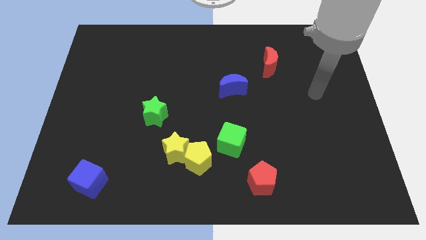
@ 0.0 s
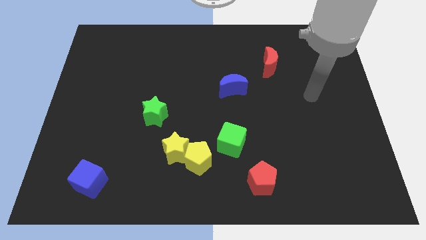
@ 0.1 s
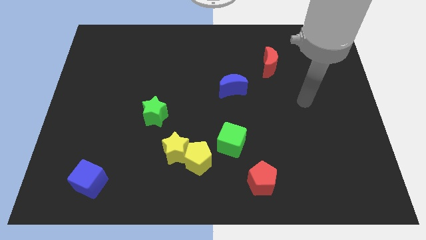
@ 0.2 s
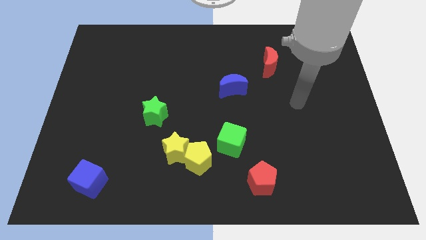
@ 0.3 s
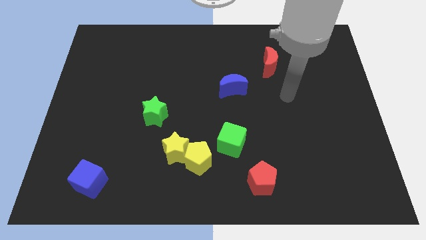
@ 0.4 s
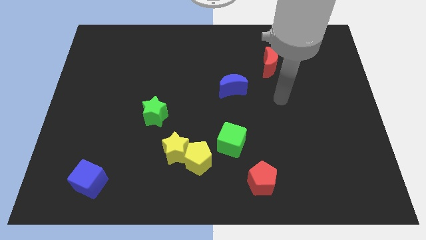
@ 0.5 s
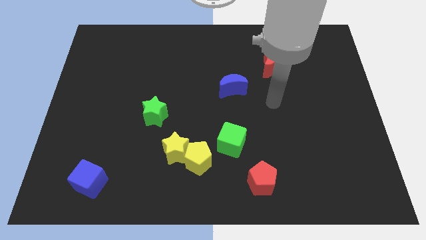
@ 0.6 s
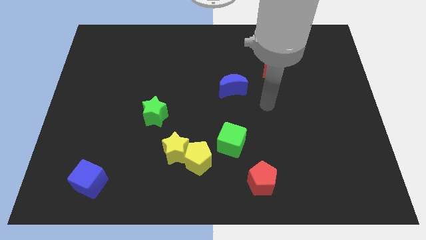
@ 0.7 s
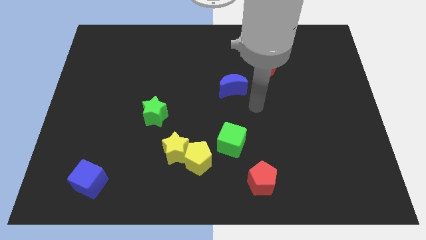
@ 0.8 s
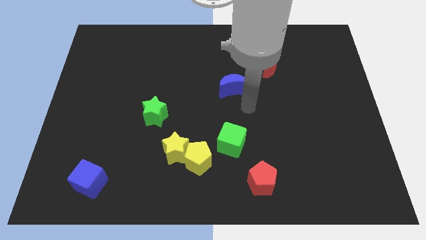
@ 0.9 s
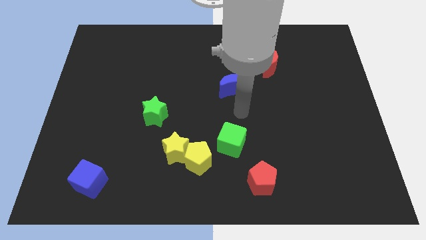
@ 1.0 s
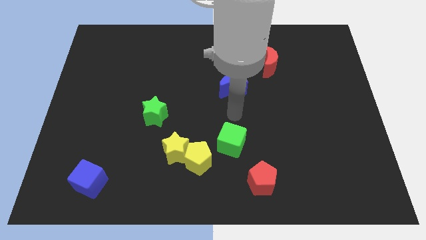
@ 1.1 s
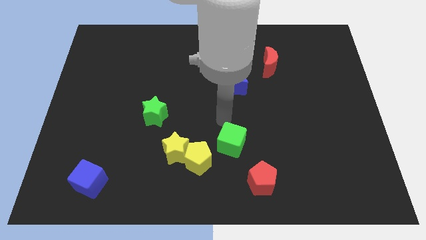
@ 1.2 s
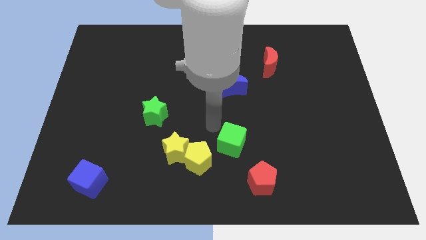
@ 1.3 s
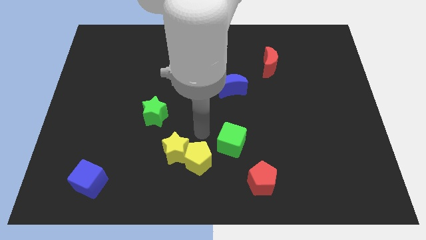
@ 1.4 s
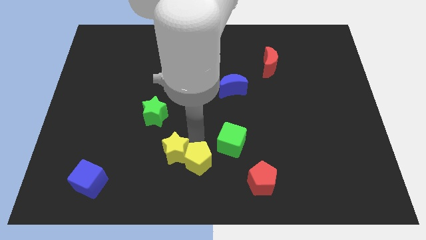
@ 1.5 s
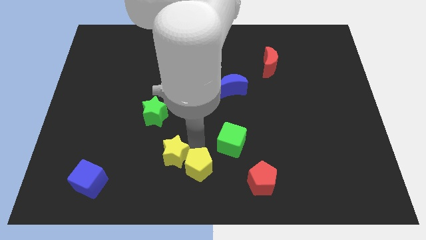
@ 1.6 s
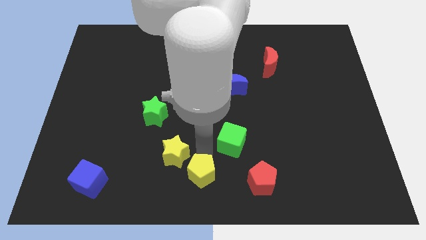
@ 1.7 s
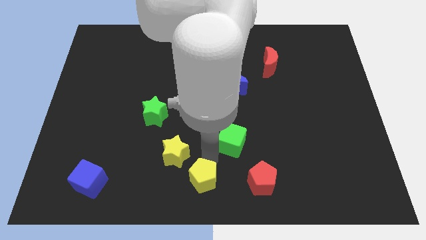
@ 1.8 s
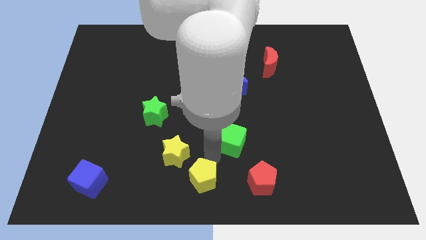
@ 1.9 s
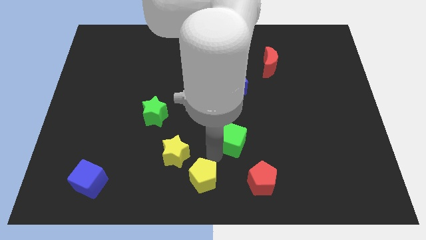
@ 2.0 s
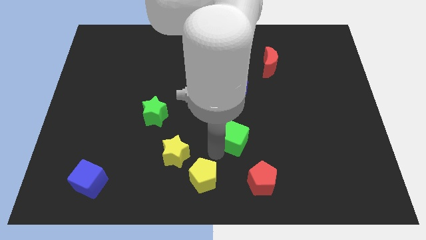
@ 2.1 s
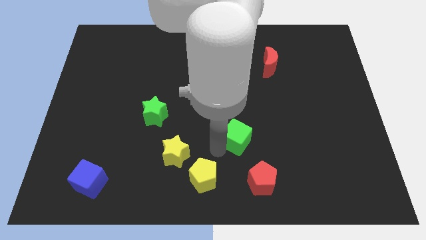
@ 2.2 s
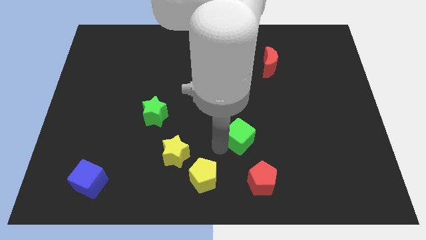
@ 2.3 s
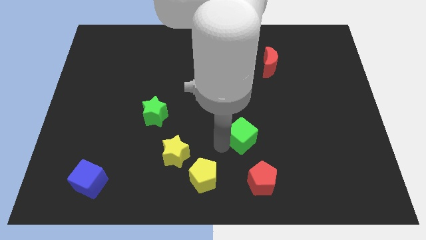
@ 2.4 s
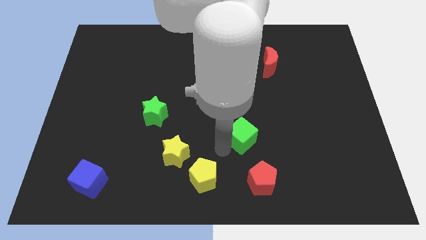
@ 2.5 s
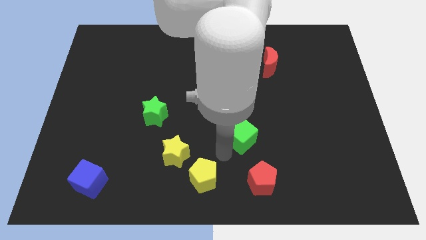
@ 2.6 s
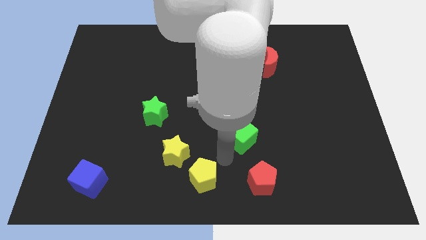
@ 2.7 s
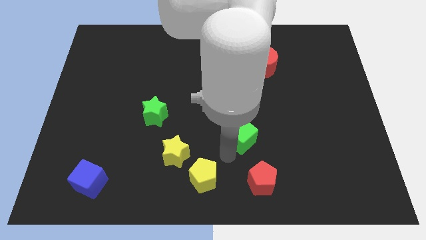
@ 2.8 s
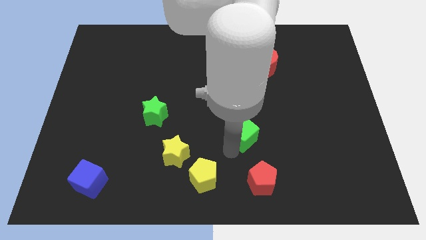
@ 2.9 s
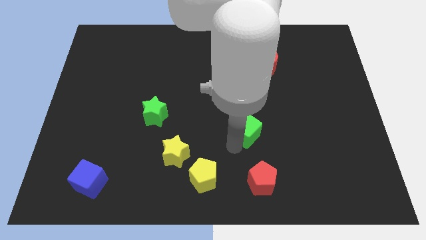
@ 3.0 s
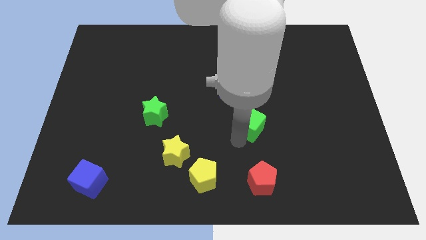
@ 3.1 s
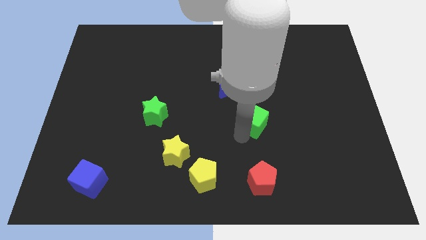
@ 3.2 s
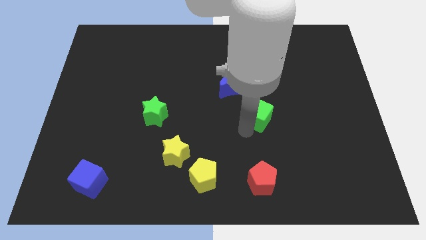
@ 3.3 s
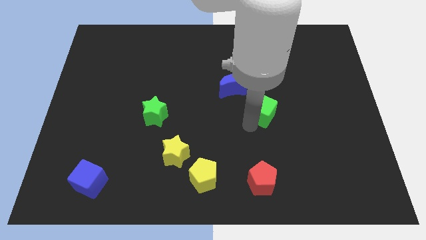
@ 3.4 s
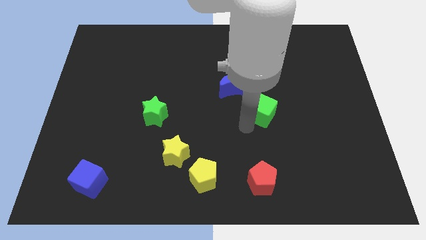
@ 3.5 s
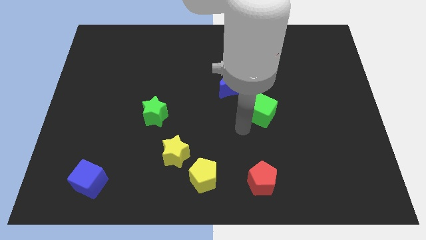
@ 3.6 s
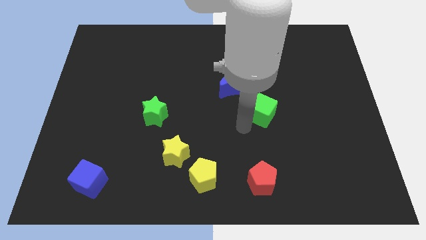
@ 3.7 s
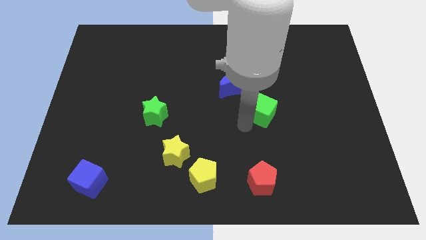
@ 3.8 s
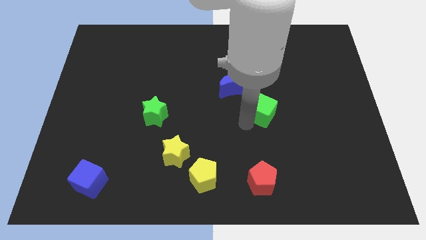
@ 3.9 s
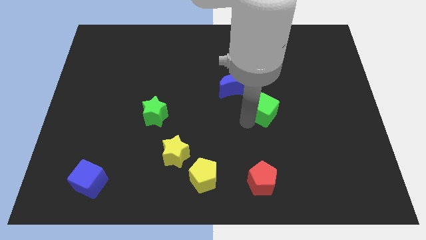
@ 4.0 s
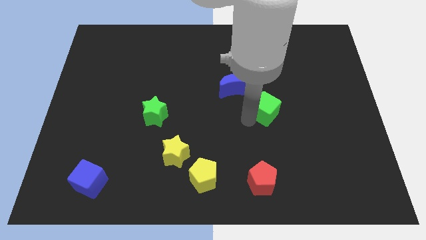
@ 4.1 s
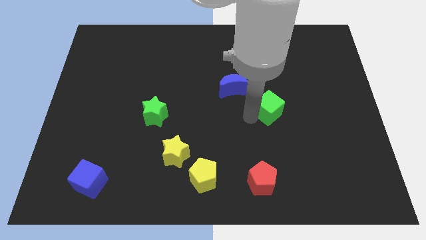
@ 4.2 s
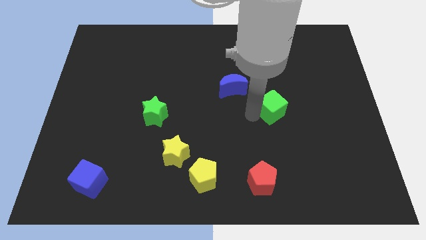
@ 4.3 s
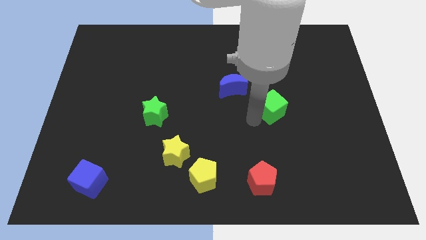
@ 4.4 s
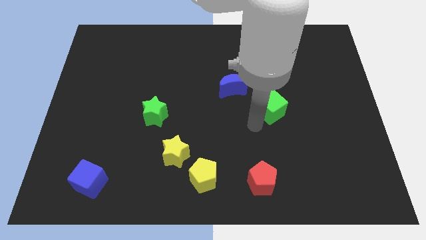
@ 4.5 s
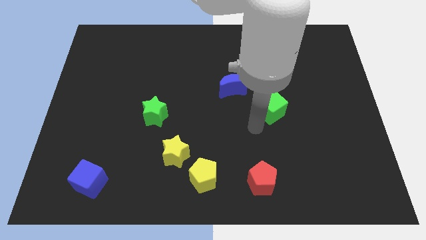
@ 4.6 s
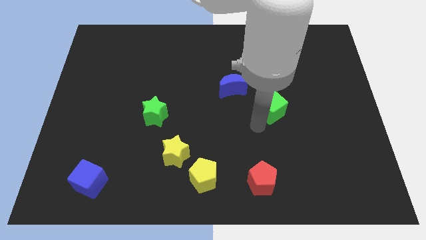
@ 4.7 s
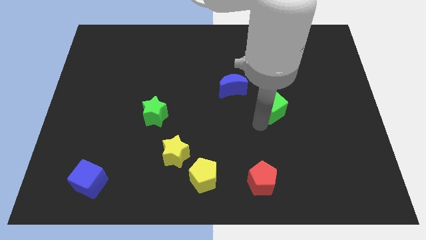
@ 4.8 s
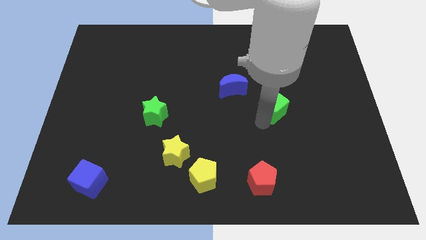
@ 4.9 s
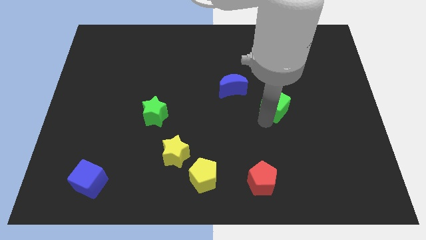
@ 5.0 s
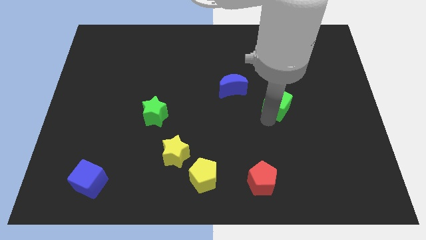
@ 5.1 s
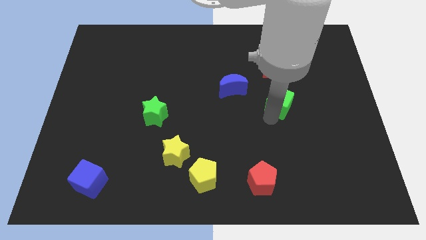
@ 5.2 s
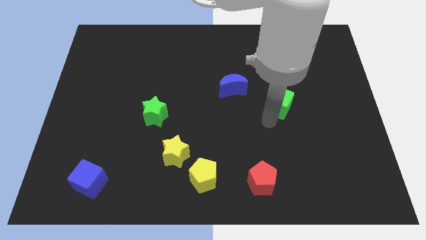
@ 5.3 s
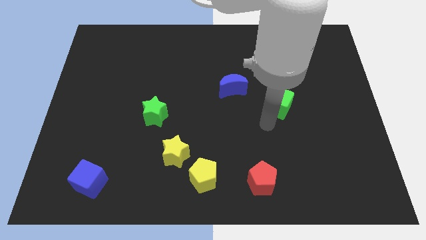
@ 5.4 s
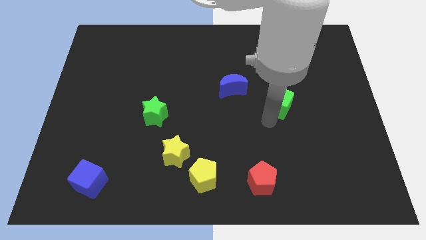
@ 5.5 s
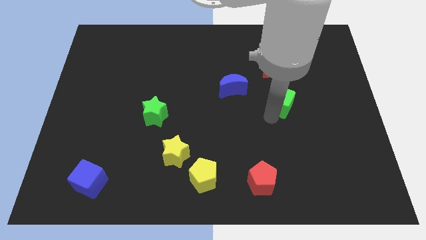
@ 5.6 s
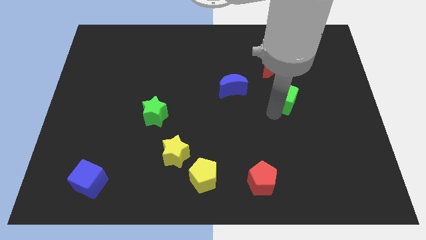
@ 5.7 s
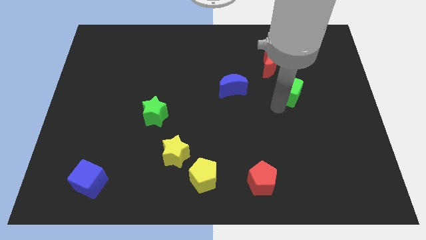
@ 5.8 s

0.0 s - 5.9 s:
push the green cube diagonally upwards and to the right

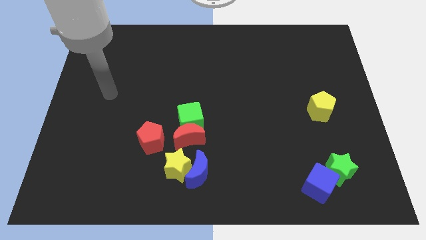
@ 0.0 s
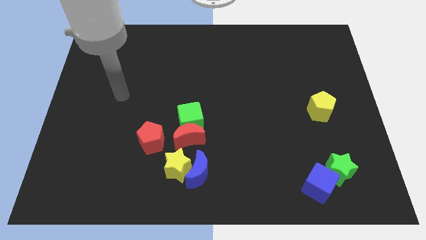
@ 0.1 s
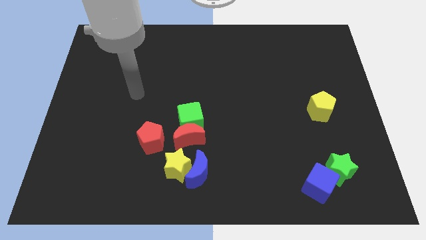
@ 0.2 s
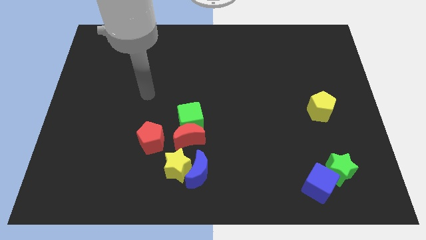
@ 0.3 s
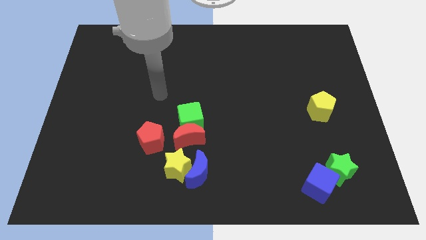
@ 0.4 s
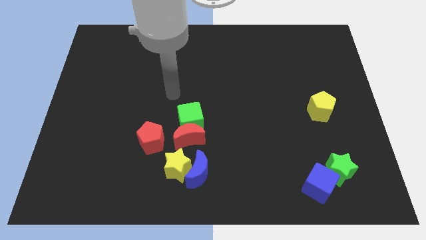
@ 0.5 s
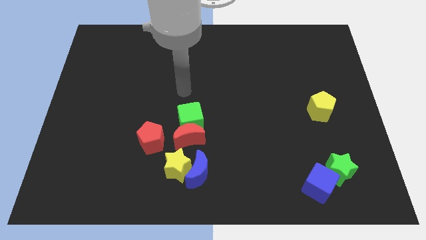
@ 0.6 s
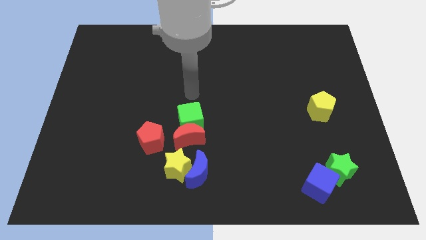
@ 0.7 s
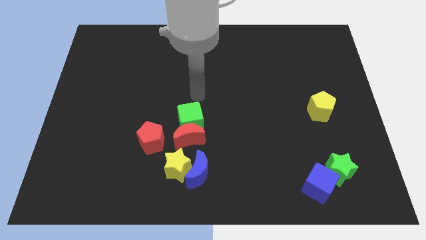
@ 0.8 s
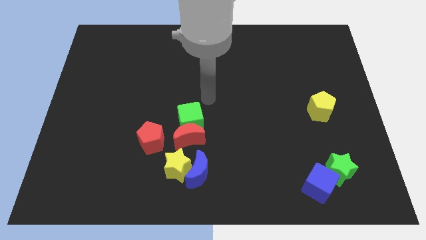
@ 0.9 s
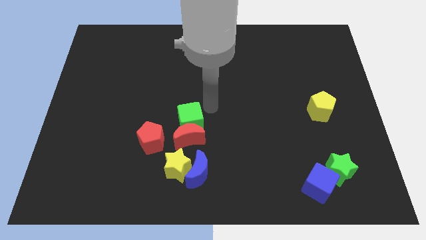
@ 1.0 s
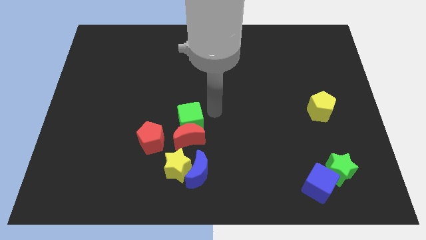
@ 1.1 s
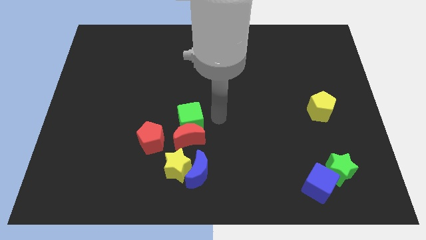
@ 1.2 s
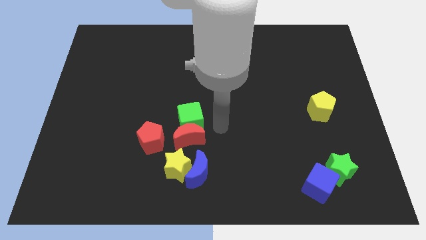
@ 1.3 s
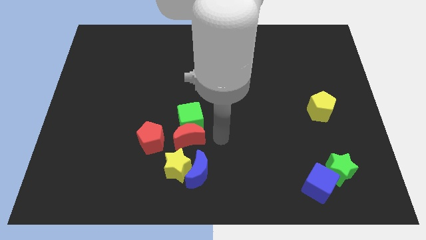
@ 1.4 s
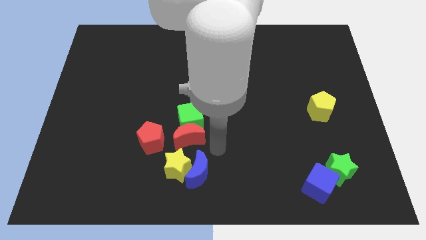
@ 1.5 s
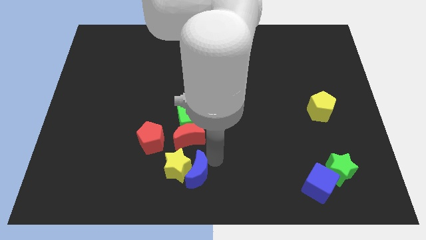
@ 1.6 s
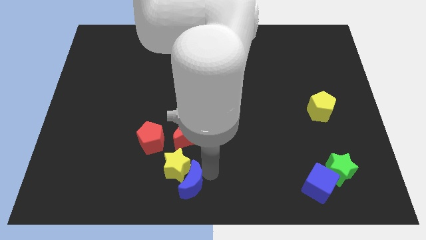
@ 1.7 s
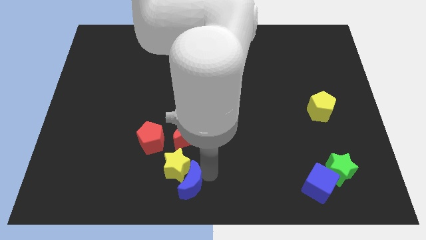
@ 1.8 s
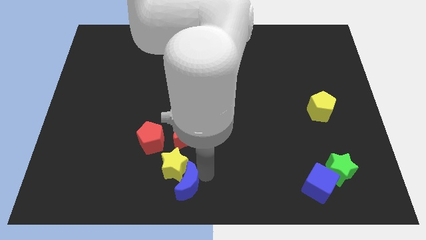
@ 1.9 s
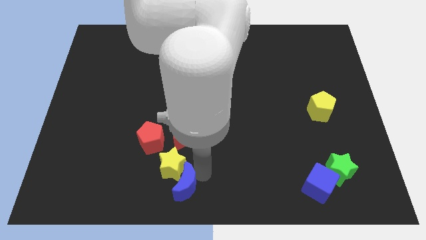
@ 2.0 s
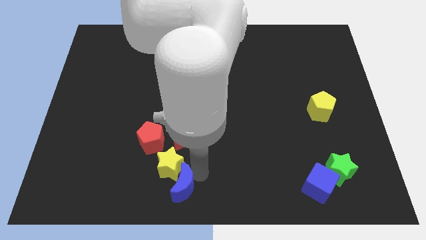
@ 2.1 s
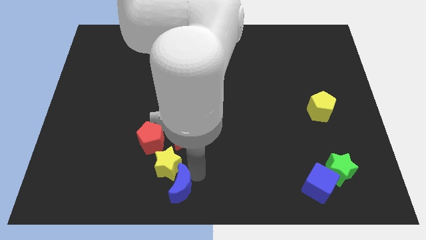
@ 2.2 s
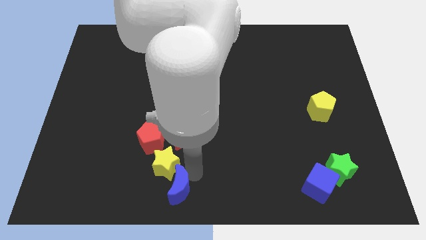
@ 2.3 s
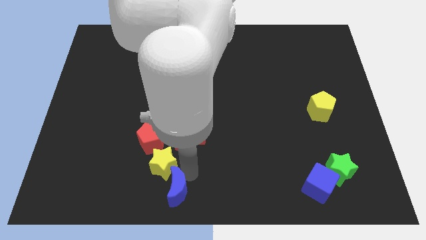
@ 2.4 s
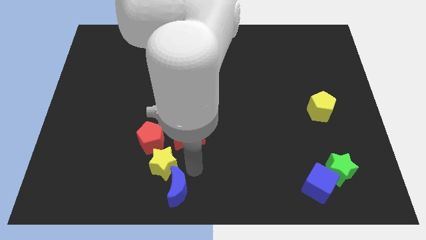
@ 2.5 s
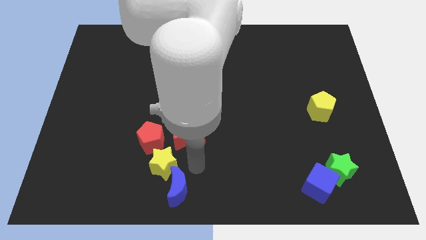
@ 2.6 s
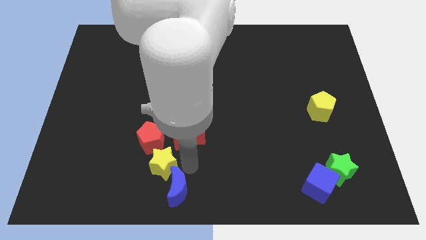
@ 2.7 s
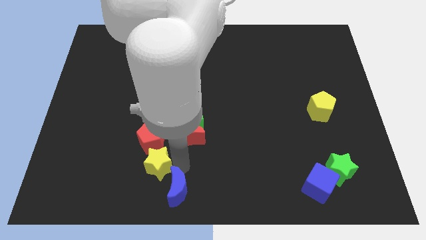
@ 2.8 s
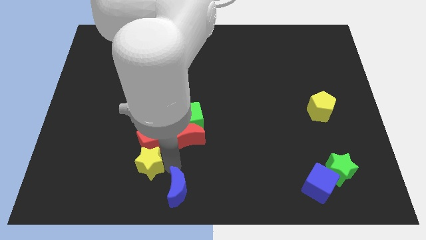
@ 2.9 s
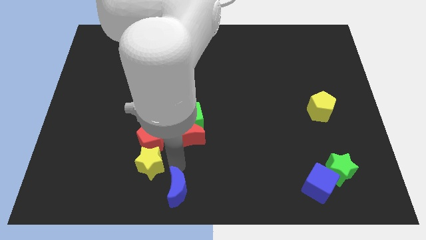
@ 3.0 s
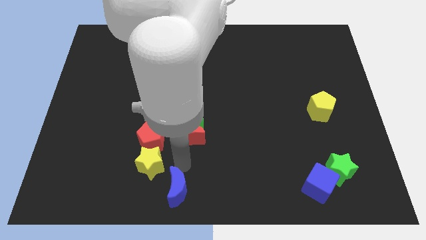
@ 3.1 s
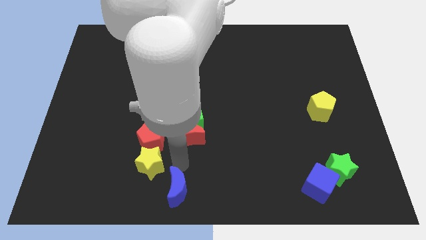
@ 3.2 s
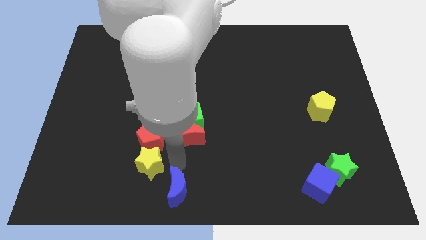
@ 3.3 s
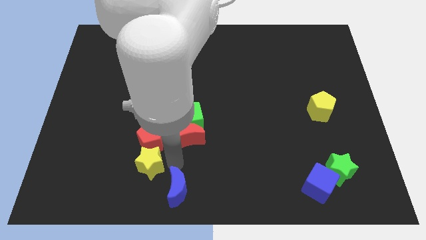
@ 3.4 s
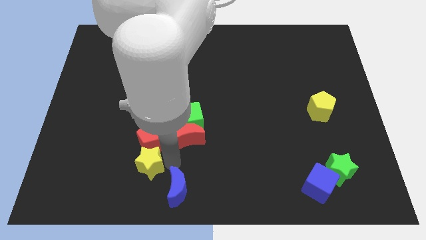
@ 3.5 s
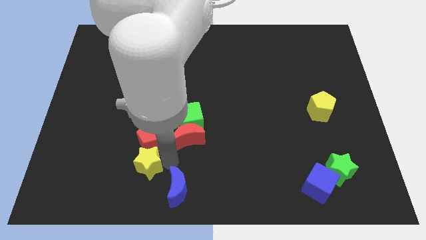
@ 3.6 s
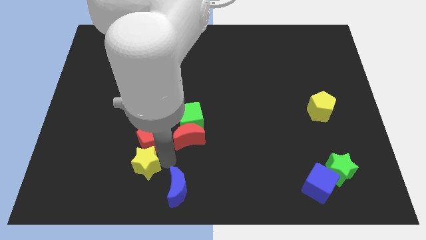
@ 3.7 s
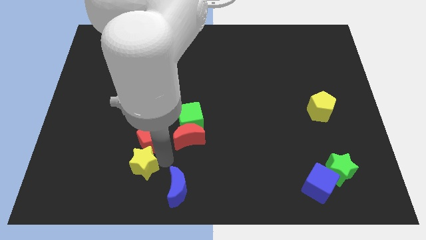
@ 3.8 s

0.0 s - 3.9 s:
slide the yellow star left somewhat
